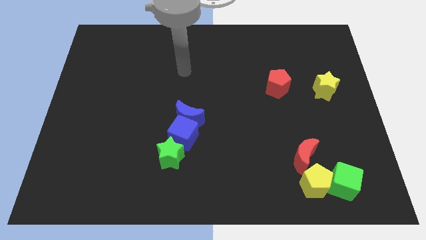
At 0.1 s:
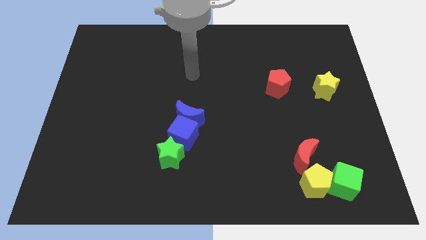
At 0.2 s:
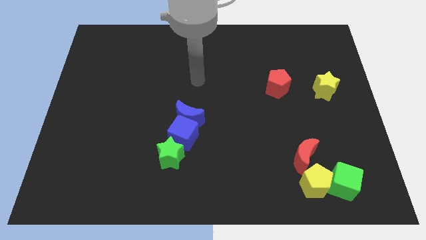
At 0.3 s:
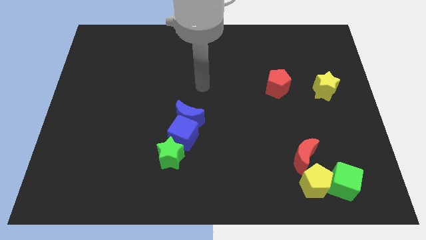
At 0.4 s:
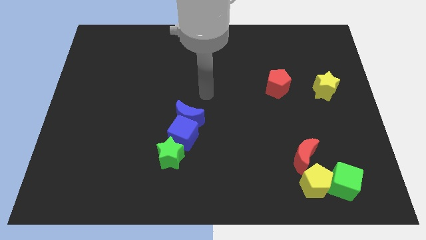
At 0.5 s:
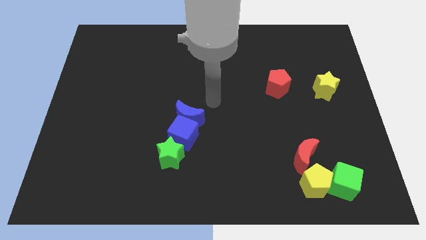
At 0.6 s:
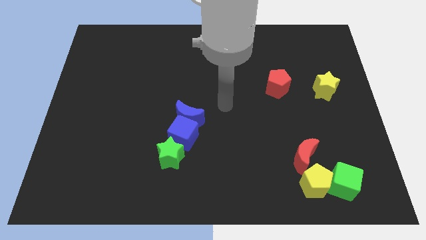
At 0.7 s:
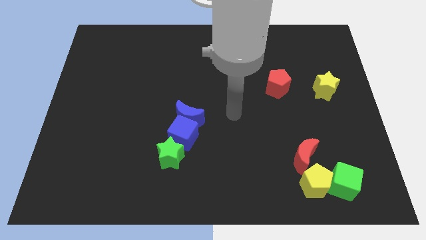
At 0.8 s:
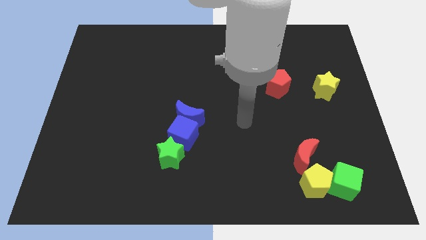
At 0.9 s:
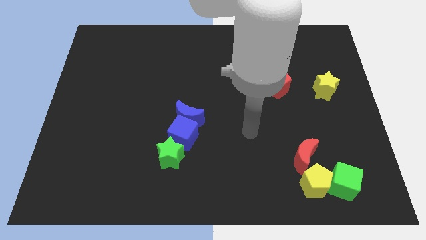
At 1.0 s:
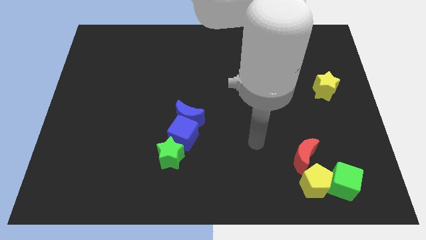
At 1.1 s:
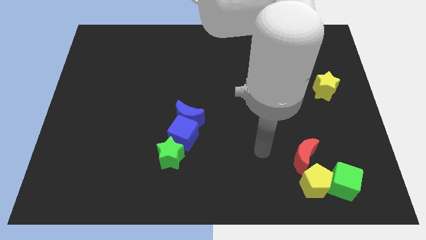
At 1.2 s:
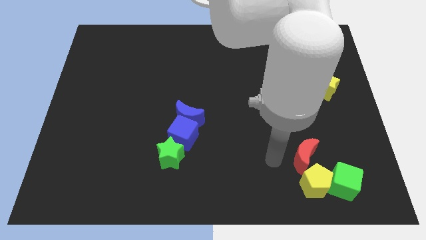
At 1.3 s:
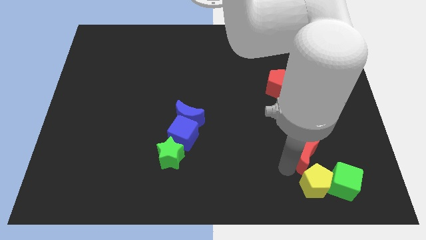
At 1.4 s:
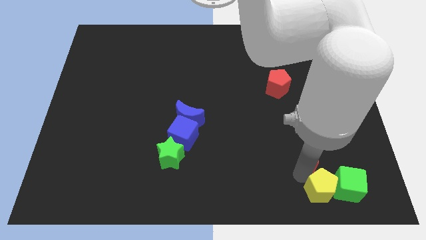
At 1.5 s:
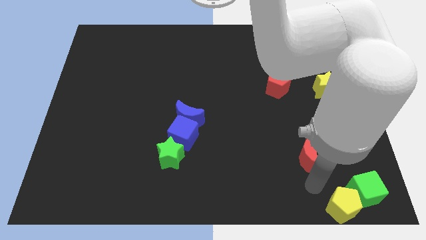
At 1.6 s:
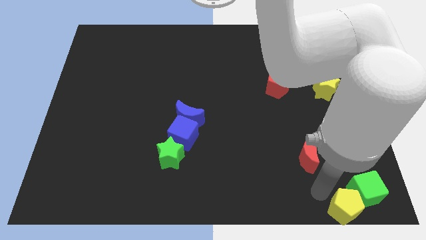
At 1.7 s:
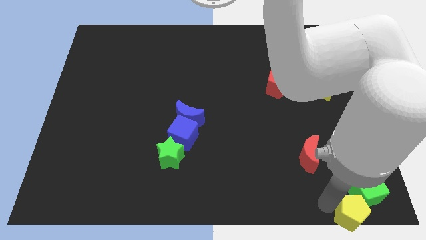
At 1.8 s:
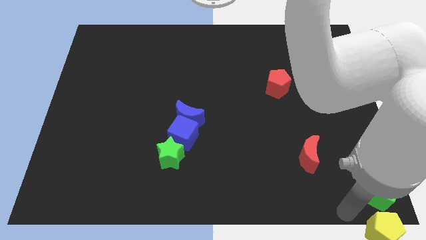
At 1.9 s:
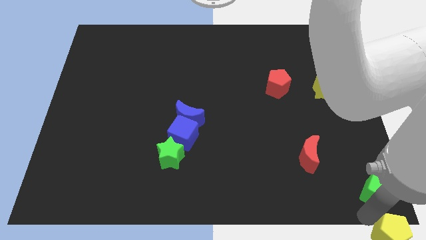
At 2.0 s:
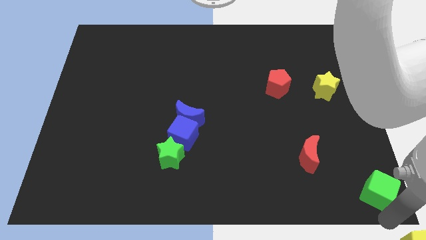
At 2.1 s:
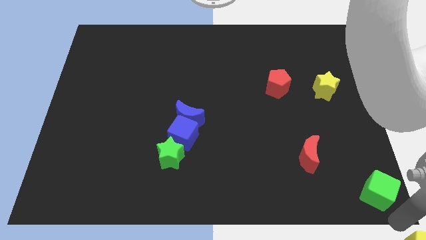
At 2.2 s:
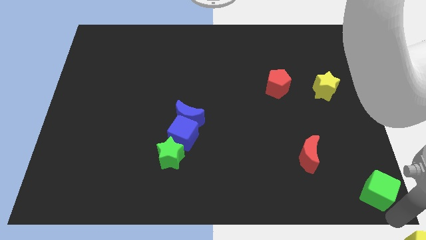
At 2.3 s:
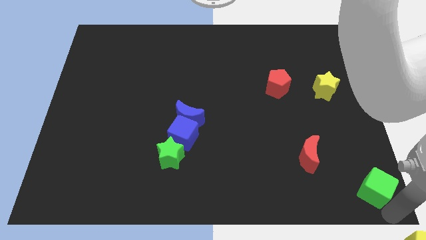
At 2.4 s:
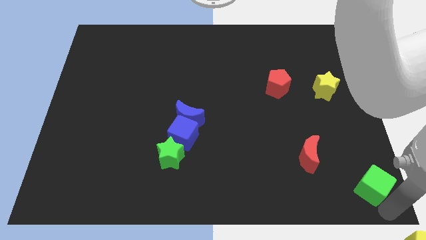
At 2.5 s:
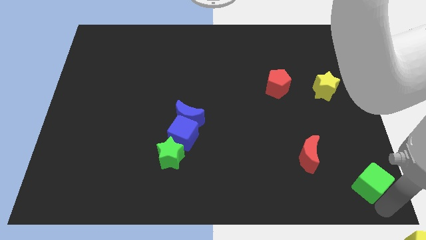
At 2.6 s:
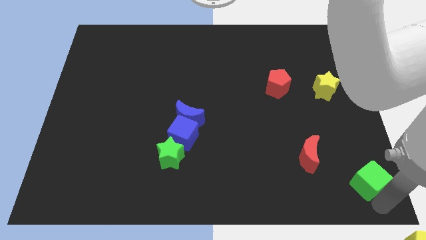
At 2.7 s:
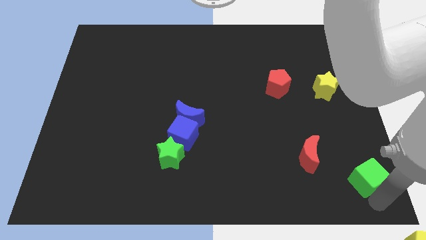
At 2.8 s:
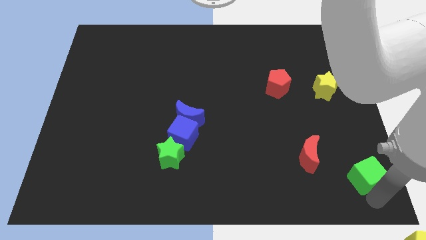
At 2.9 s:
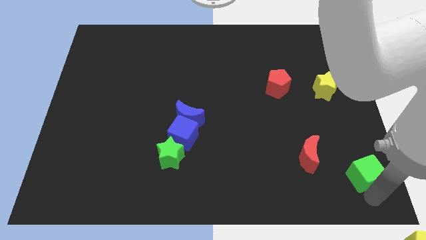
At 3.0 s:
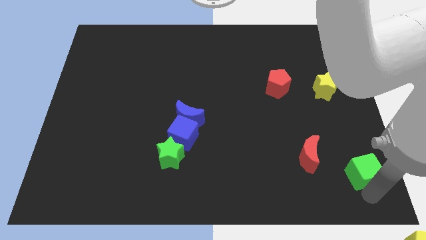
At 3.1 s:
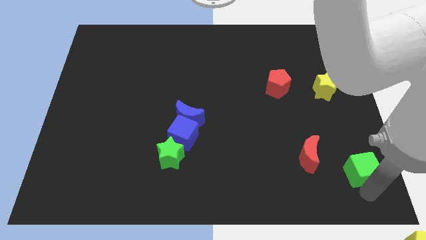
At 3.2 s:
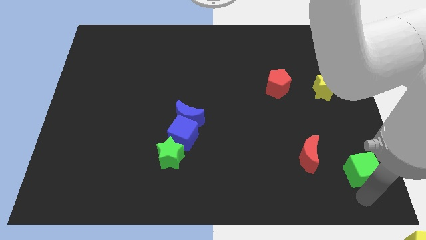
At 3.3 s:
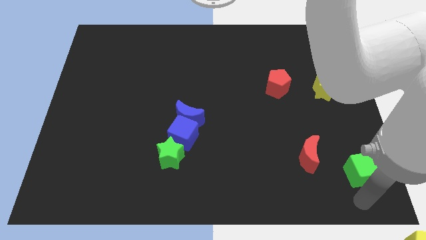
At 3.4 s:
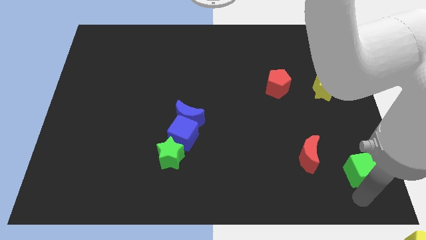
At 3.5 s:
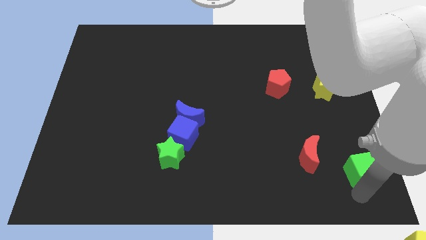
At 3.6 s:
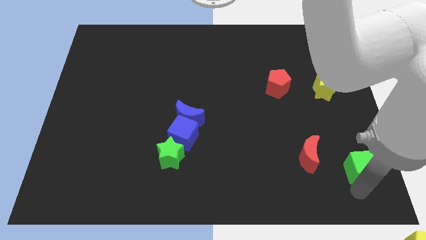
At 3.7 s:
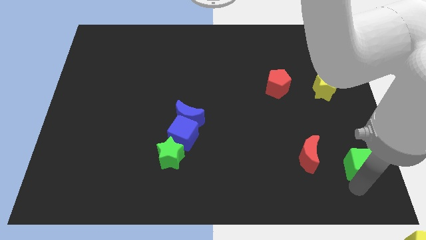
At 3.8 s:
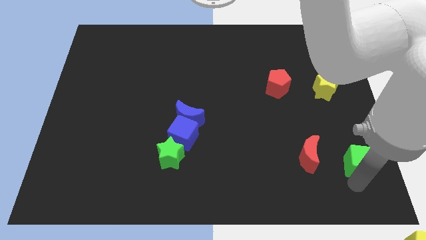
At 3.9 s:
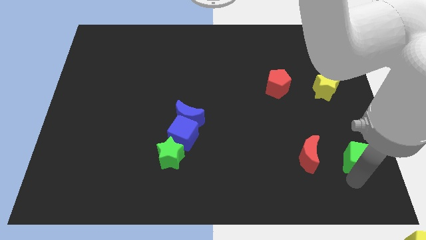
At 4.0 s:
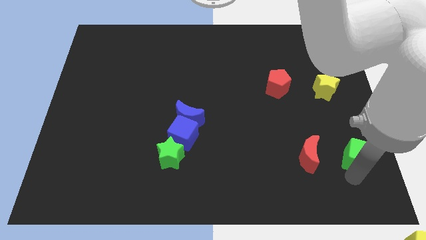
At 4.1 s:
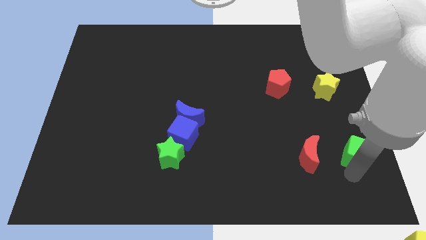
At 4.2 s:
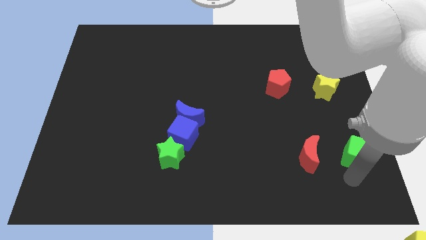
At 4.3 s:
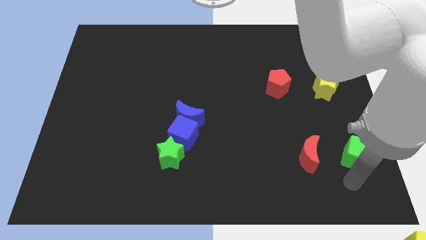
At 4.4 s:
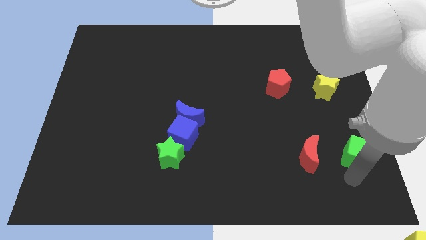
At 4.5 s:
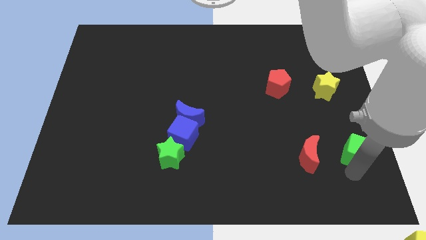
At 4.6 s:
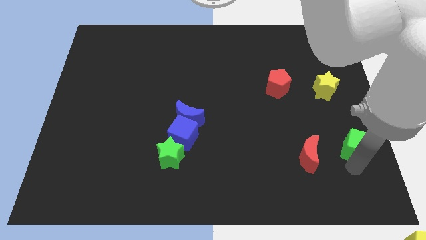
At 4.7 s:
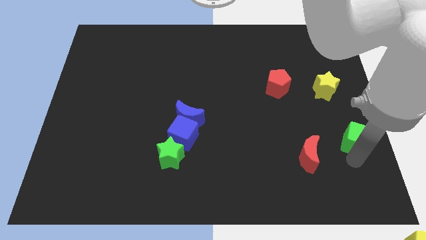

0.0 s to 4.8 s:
move the green cube to the right side of the board

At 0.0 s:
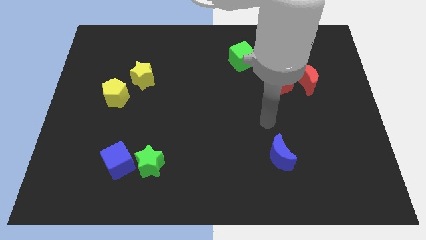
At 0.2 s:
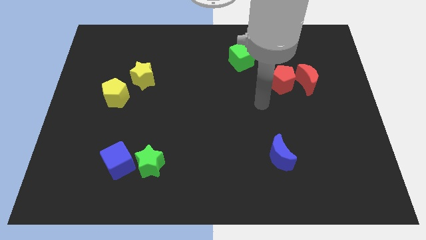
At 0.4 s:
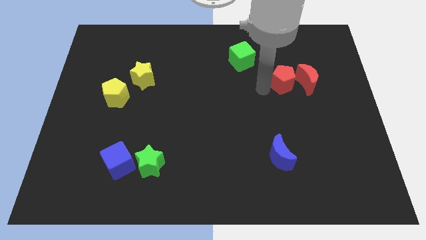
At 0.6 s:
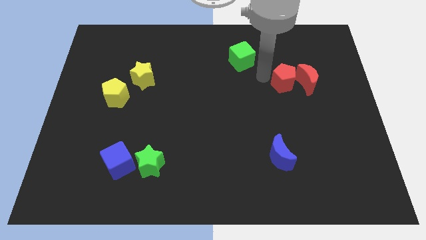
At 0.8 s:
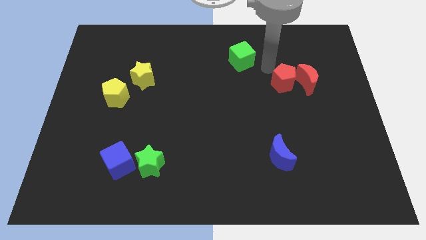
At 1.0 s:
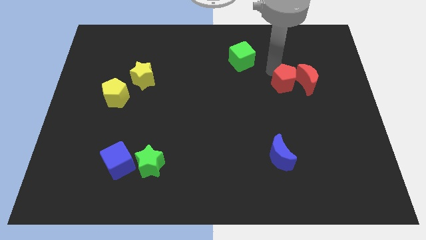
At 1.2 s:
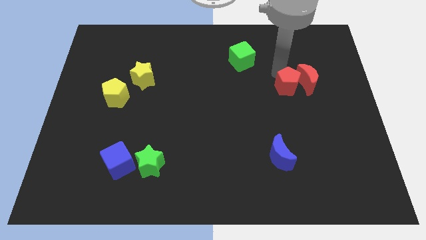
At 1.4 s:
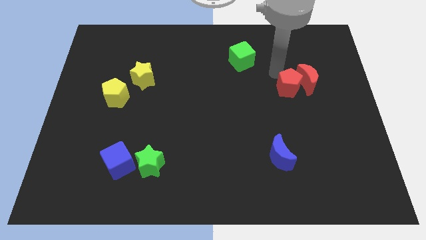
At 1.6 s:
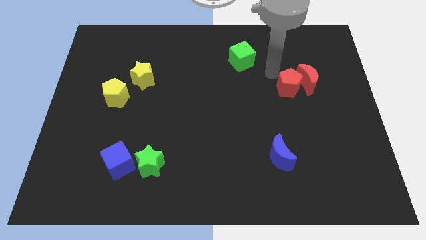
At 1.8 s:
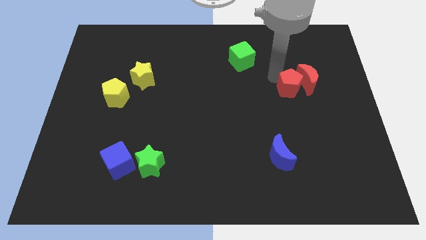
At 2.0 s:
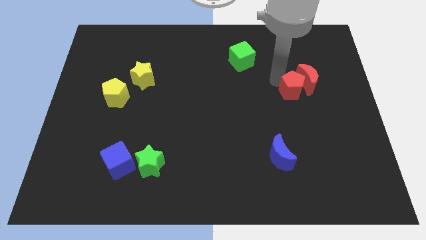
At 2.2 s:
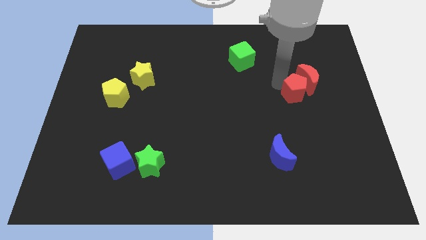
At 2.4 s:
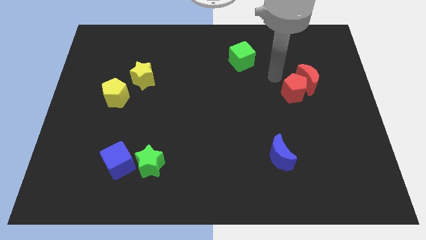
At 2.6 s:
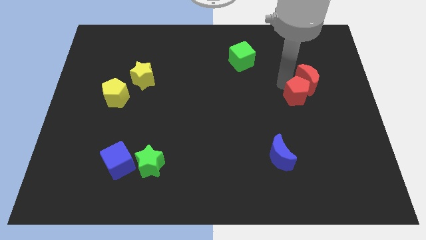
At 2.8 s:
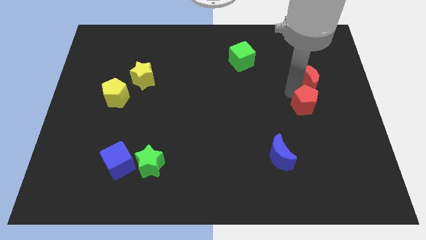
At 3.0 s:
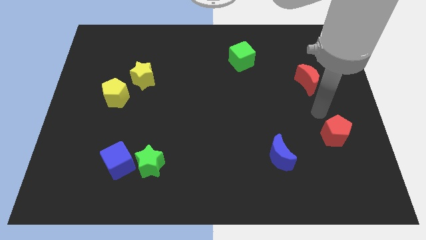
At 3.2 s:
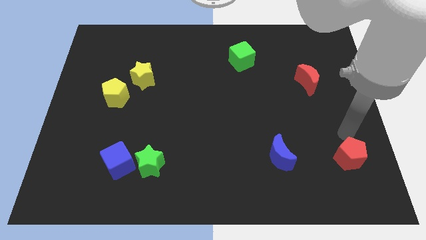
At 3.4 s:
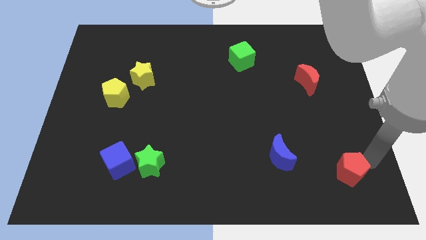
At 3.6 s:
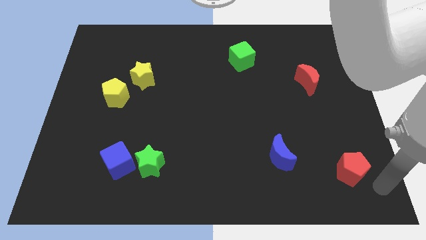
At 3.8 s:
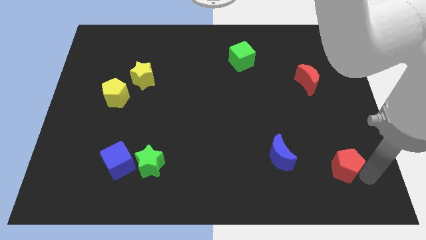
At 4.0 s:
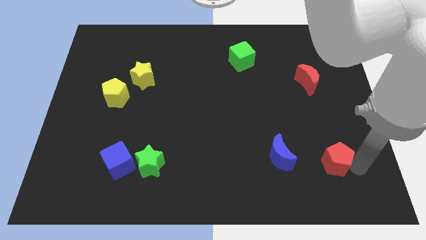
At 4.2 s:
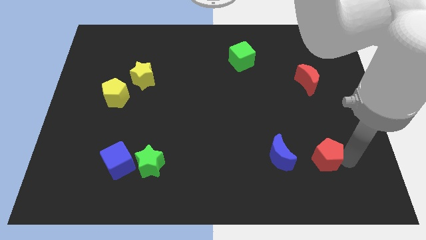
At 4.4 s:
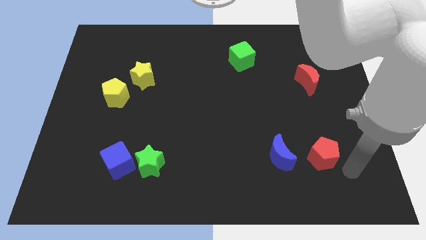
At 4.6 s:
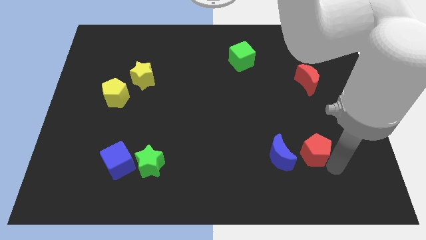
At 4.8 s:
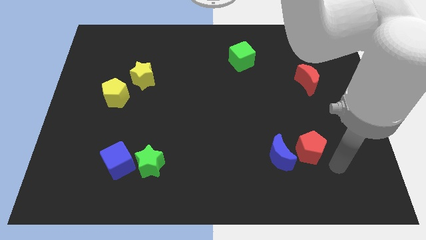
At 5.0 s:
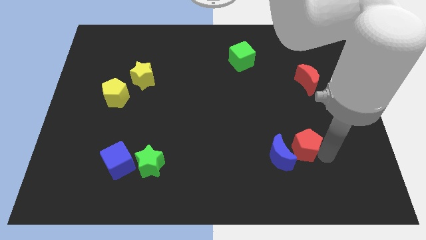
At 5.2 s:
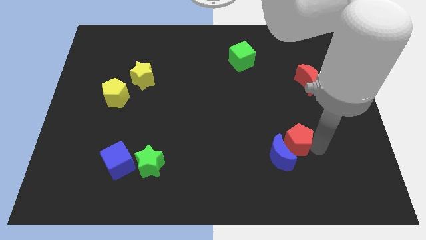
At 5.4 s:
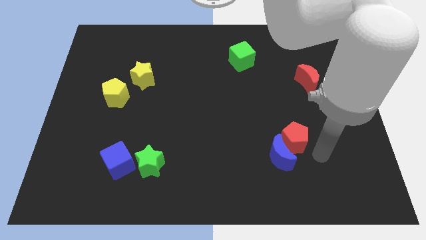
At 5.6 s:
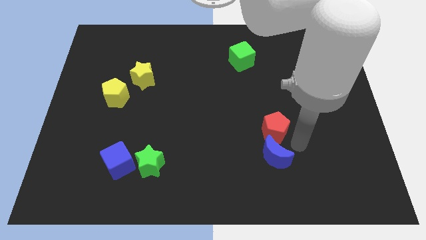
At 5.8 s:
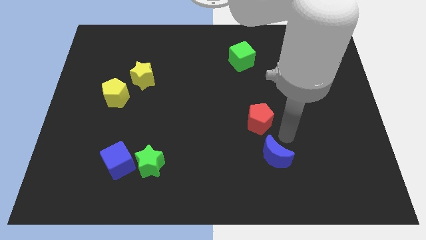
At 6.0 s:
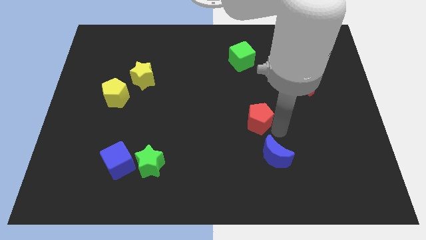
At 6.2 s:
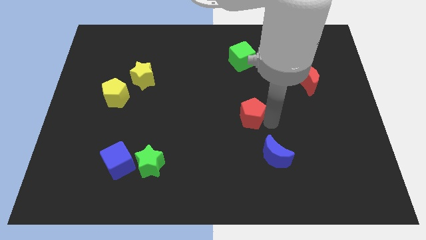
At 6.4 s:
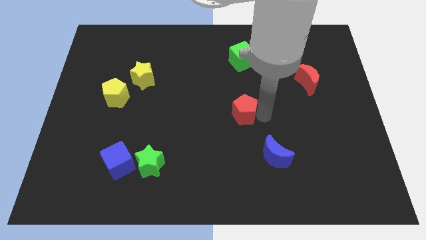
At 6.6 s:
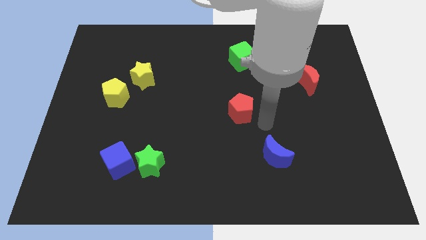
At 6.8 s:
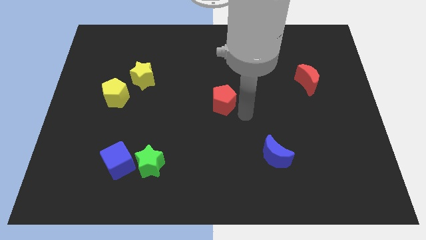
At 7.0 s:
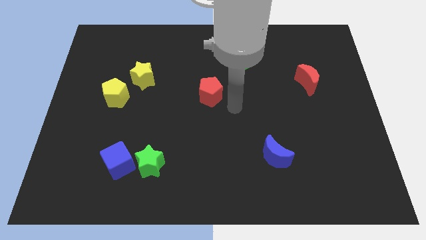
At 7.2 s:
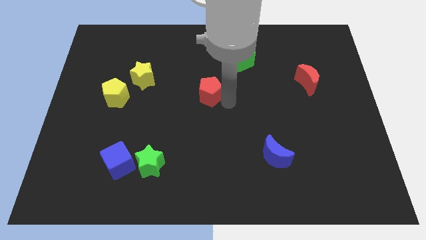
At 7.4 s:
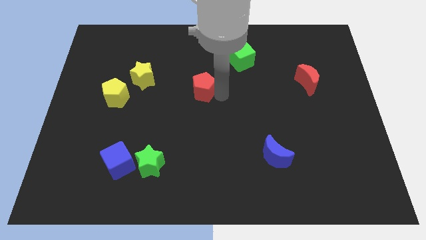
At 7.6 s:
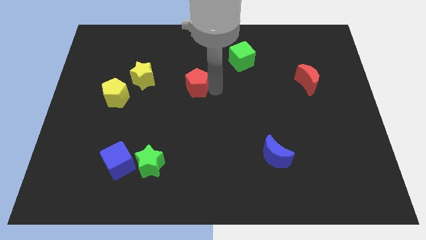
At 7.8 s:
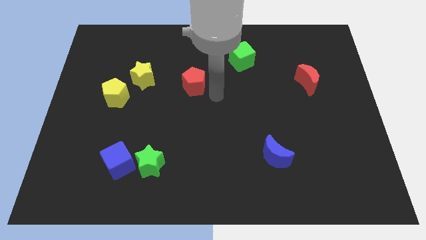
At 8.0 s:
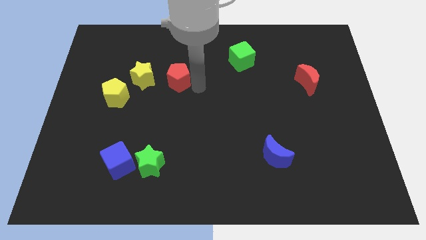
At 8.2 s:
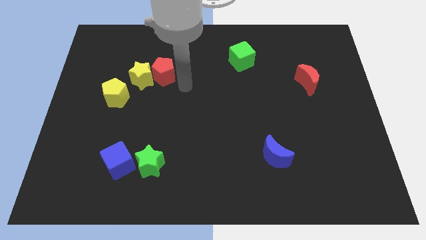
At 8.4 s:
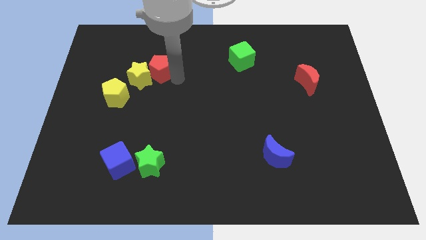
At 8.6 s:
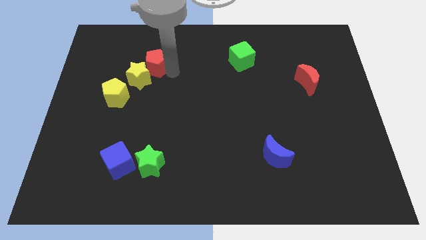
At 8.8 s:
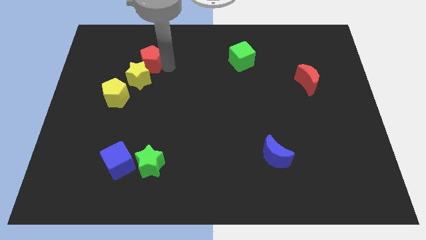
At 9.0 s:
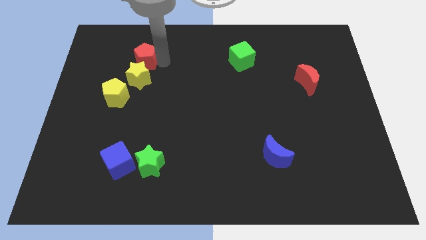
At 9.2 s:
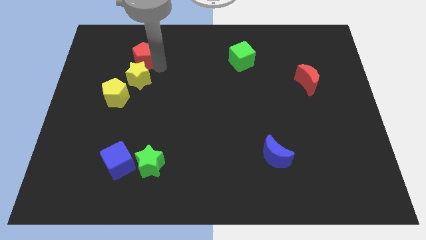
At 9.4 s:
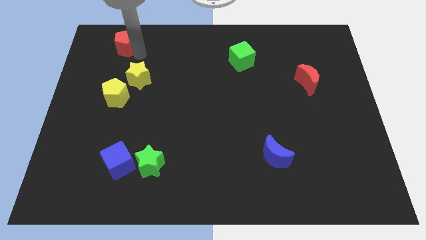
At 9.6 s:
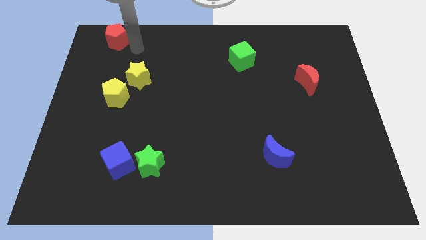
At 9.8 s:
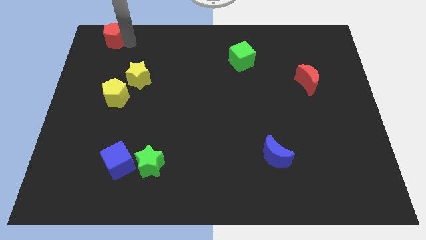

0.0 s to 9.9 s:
push the red pentagon to the top left of the board
